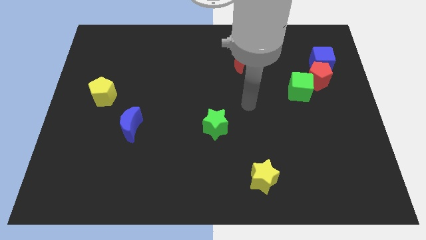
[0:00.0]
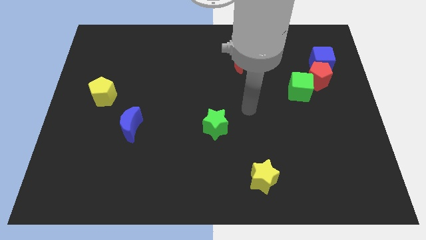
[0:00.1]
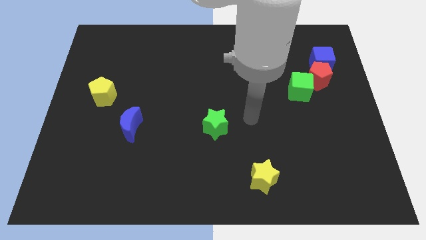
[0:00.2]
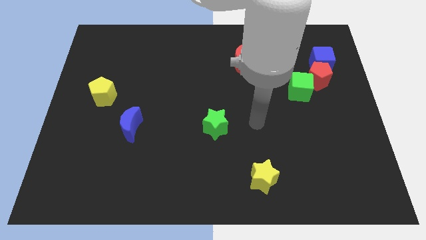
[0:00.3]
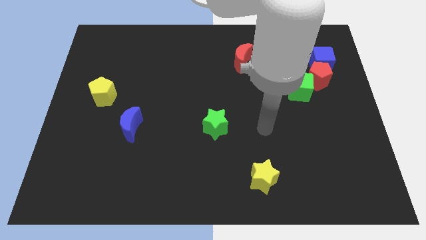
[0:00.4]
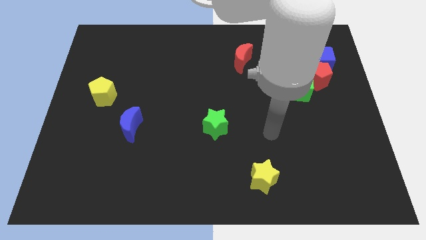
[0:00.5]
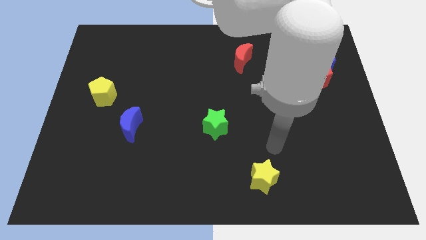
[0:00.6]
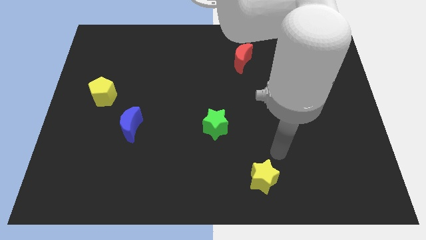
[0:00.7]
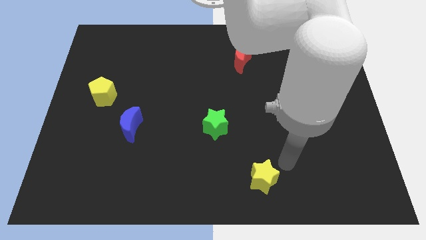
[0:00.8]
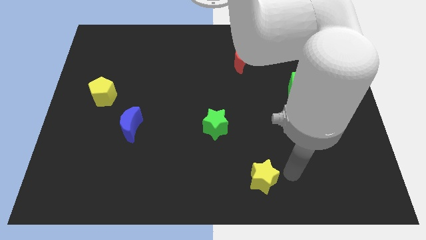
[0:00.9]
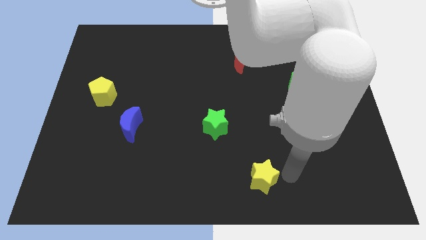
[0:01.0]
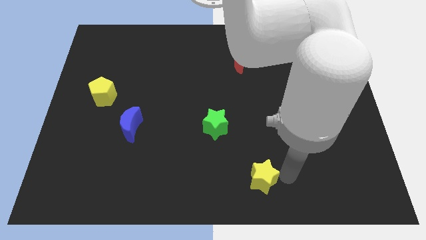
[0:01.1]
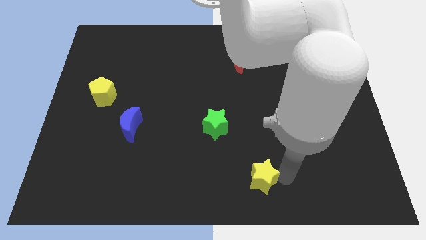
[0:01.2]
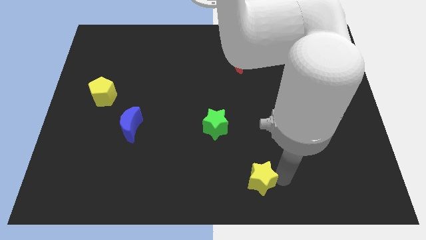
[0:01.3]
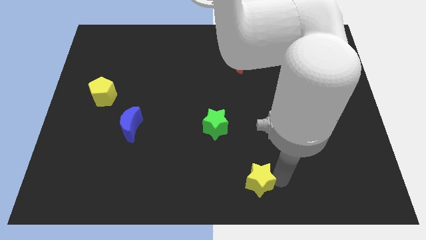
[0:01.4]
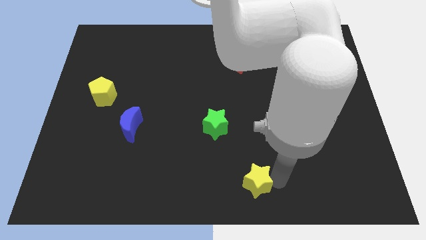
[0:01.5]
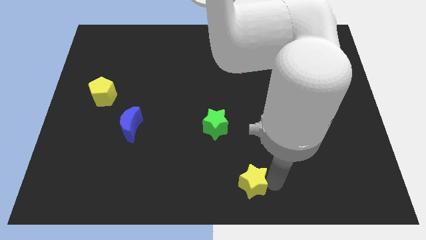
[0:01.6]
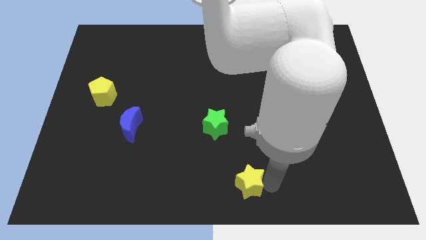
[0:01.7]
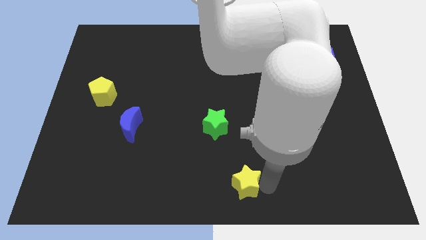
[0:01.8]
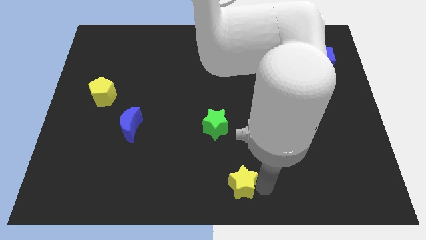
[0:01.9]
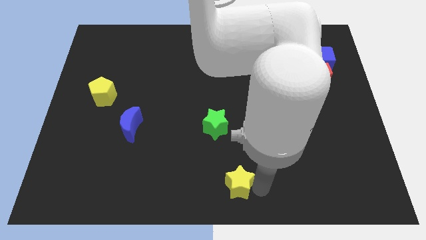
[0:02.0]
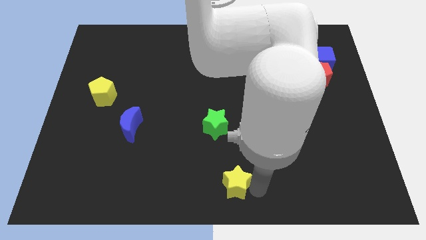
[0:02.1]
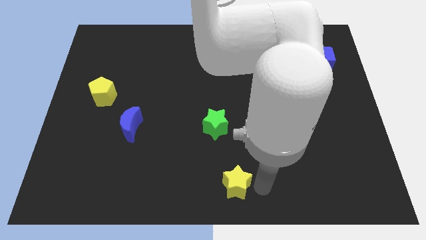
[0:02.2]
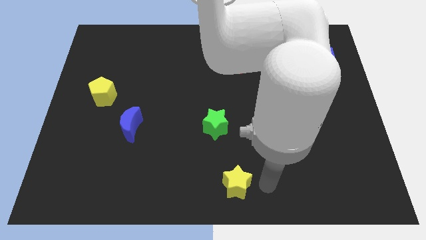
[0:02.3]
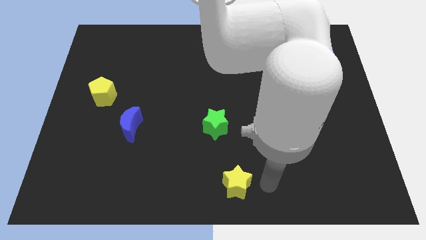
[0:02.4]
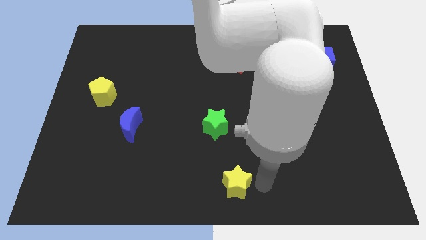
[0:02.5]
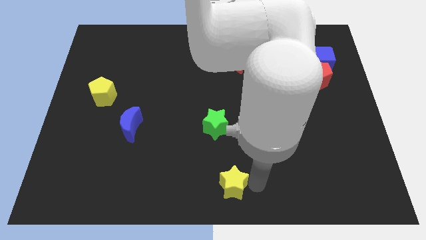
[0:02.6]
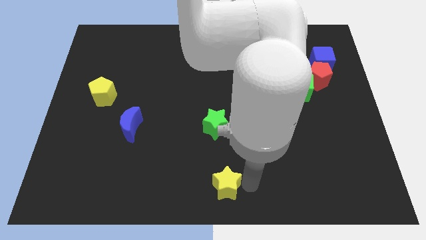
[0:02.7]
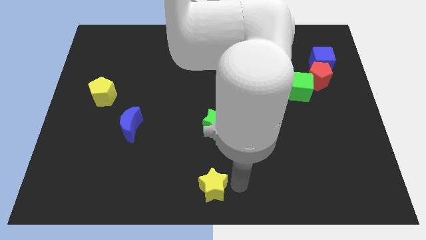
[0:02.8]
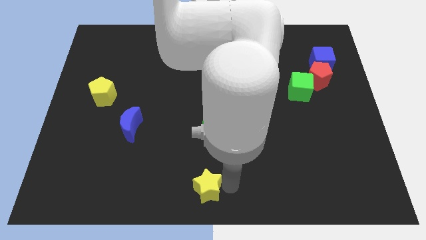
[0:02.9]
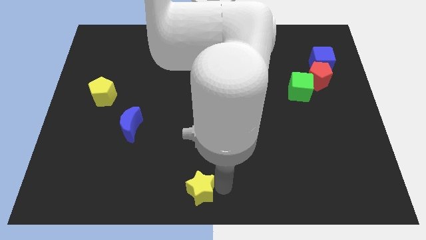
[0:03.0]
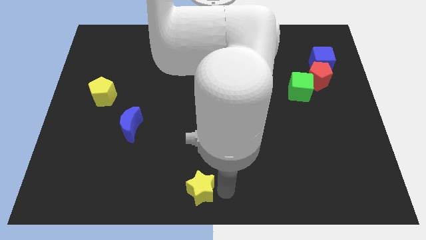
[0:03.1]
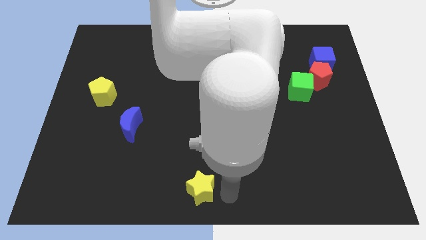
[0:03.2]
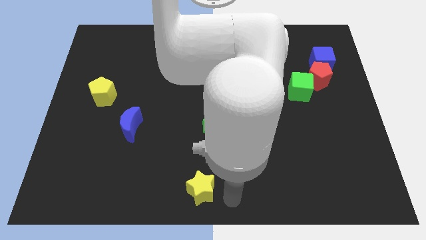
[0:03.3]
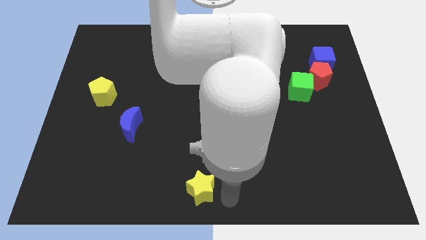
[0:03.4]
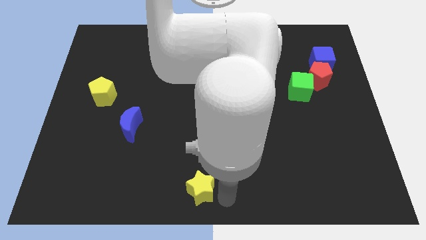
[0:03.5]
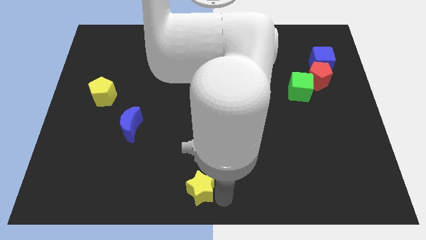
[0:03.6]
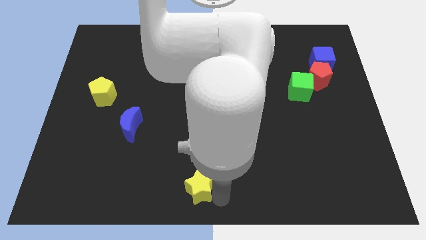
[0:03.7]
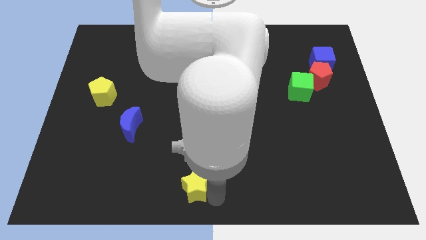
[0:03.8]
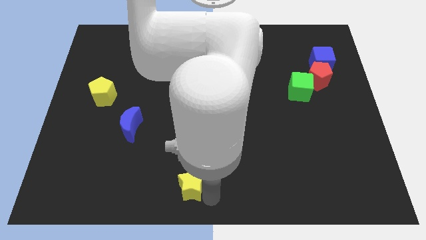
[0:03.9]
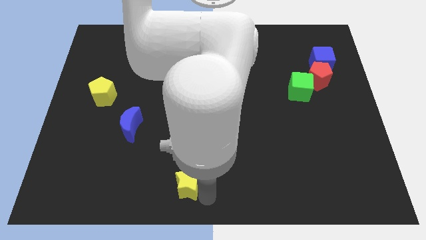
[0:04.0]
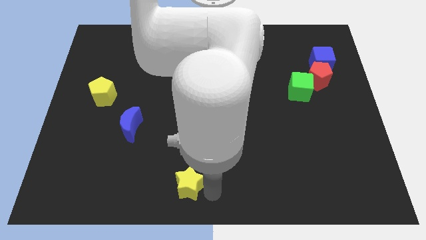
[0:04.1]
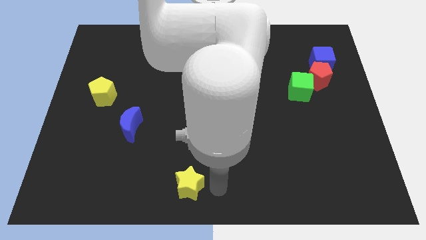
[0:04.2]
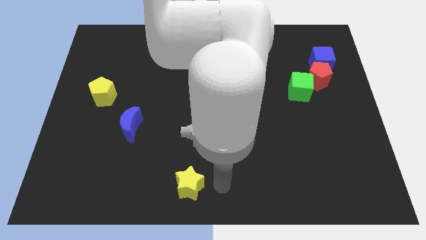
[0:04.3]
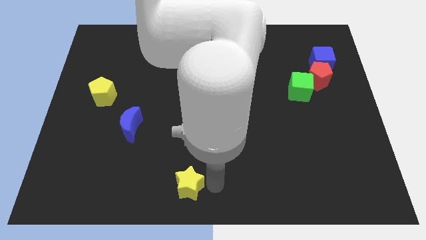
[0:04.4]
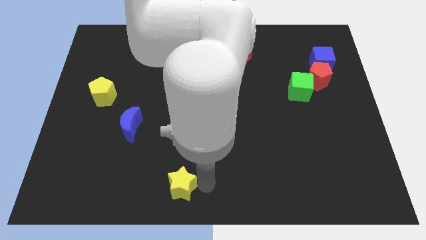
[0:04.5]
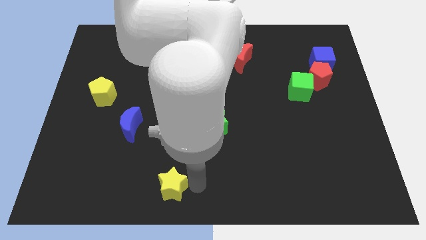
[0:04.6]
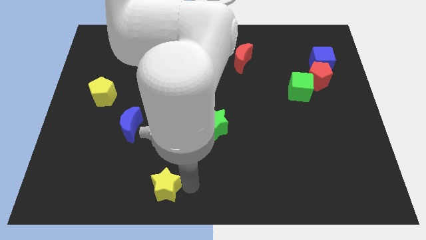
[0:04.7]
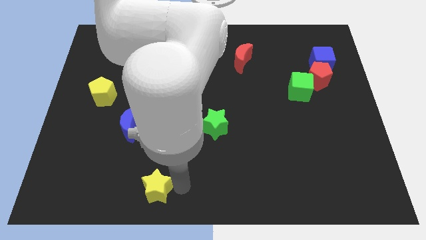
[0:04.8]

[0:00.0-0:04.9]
push the yellow star to the left

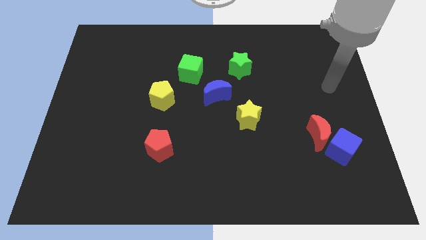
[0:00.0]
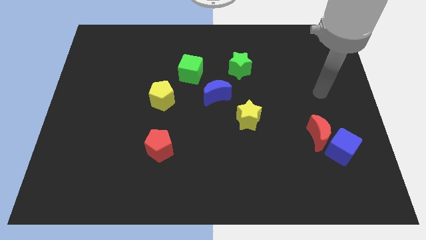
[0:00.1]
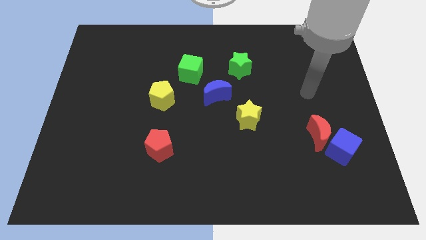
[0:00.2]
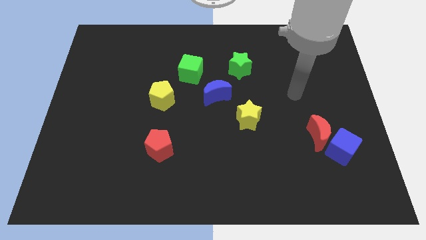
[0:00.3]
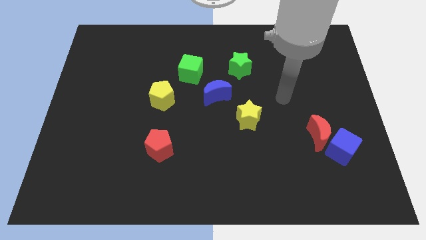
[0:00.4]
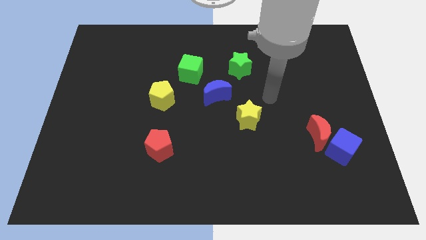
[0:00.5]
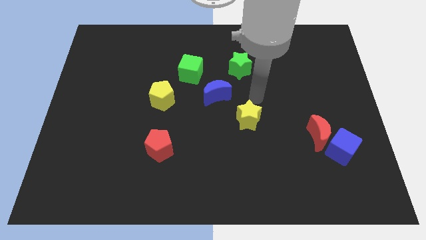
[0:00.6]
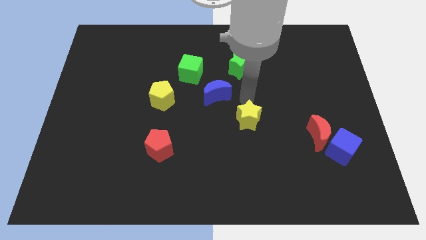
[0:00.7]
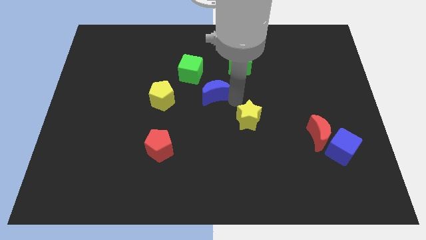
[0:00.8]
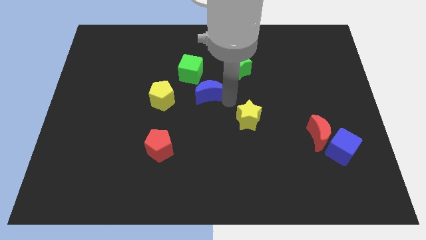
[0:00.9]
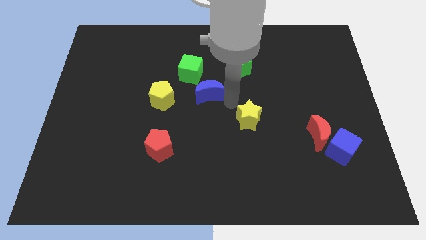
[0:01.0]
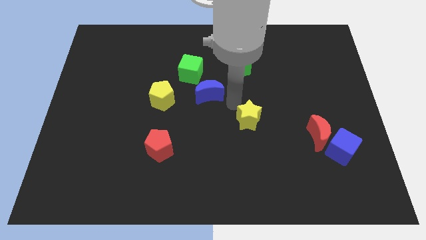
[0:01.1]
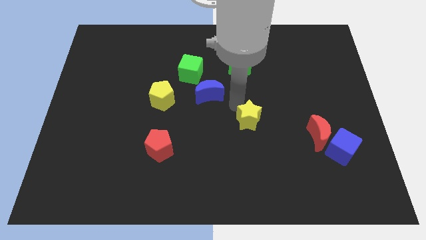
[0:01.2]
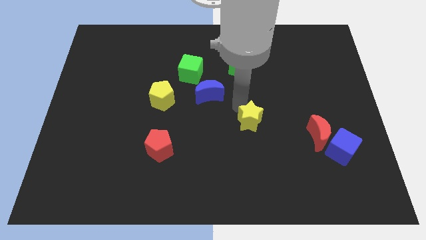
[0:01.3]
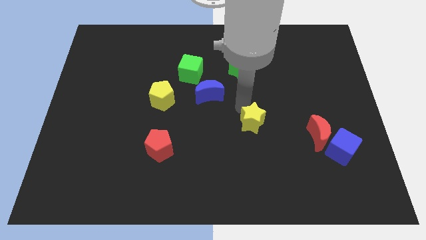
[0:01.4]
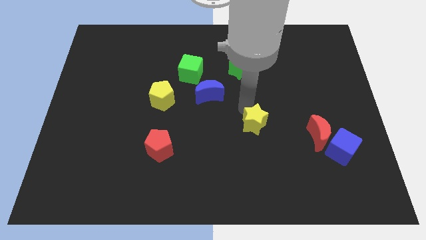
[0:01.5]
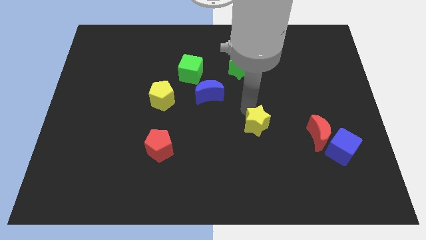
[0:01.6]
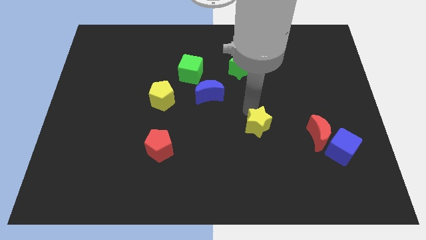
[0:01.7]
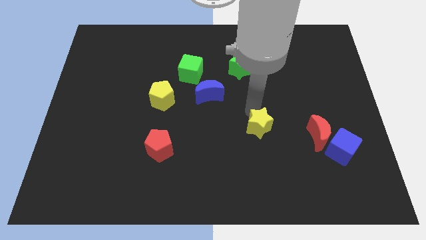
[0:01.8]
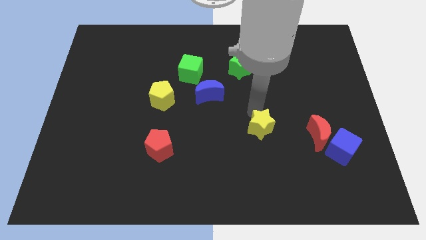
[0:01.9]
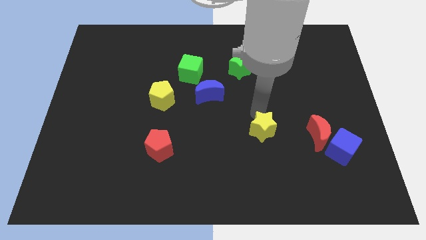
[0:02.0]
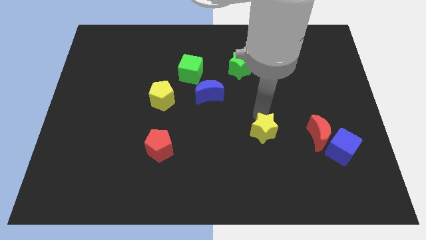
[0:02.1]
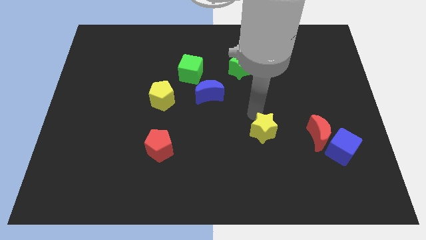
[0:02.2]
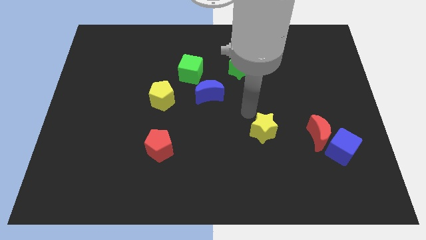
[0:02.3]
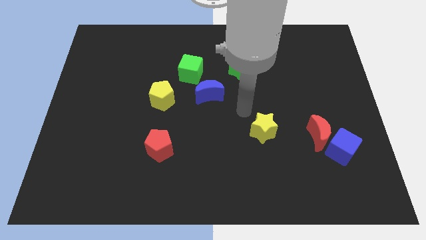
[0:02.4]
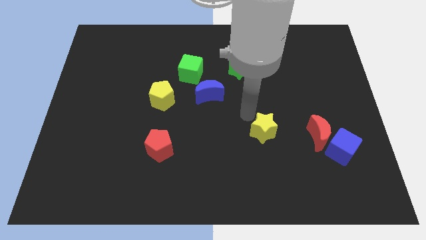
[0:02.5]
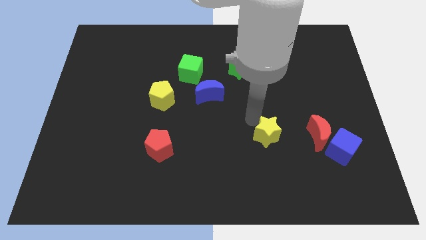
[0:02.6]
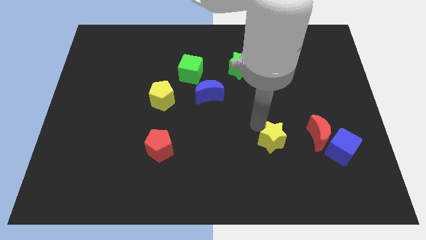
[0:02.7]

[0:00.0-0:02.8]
slightly move the yellow star downwards and to the right

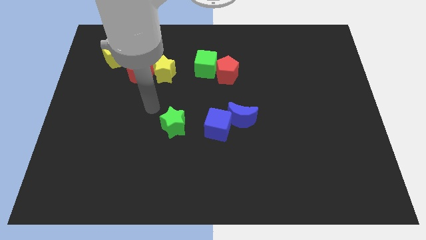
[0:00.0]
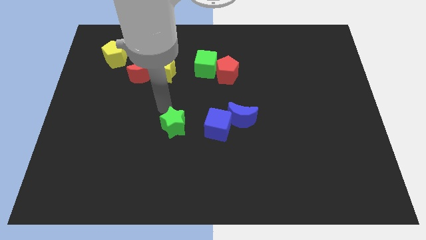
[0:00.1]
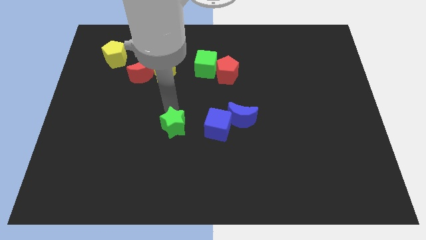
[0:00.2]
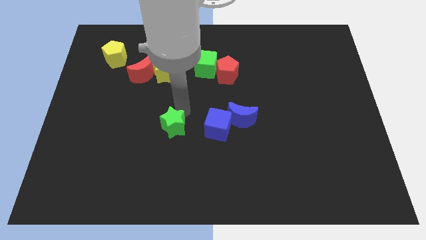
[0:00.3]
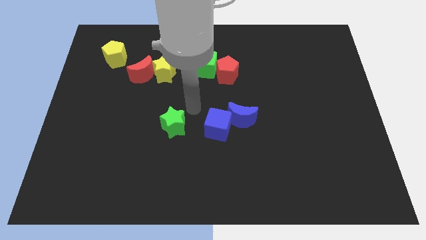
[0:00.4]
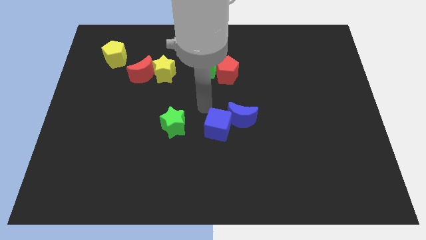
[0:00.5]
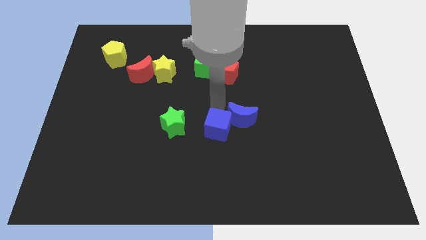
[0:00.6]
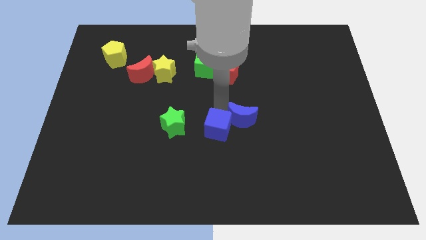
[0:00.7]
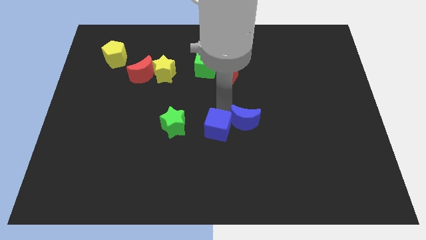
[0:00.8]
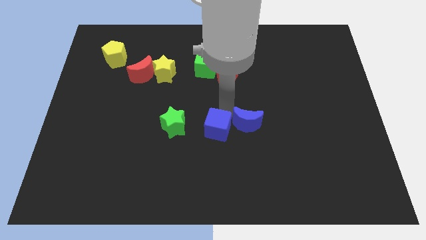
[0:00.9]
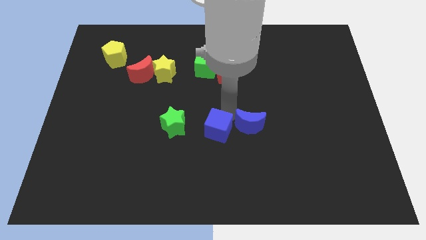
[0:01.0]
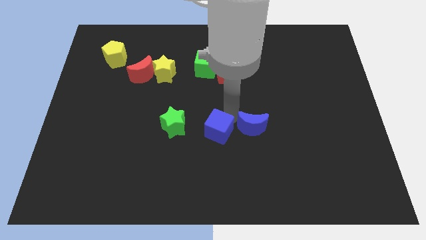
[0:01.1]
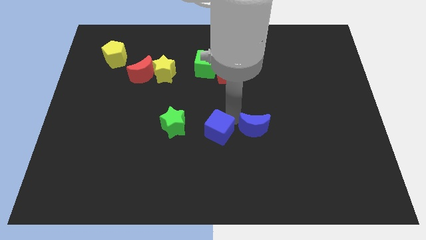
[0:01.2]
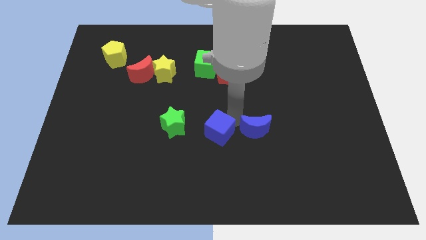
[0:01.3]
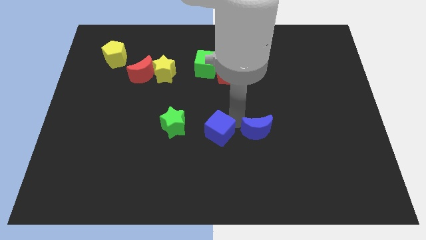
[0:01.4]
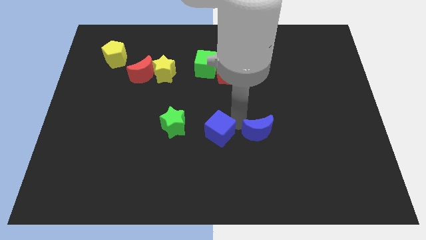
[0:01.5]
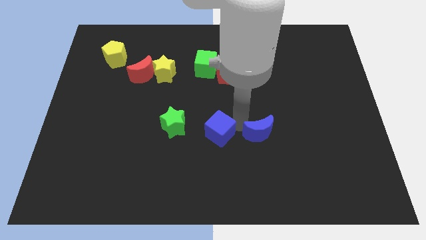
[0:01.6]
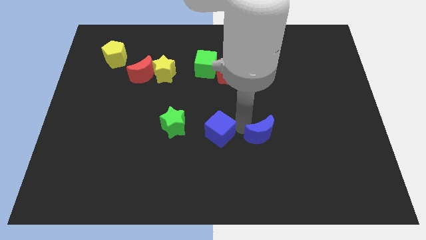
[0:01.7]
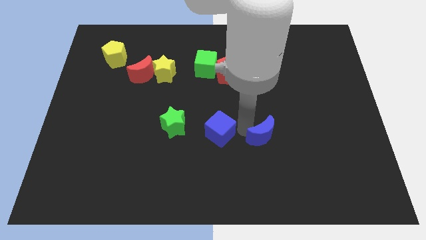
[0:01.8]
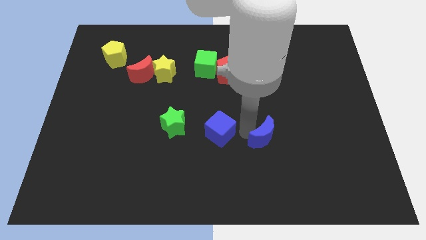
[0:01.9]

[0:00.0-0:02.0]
slightly slide the blue moon down and right
